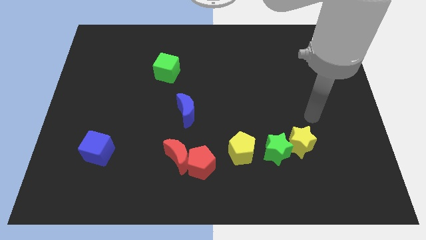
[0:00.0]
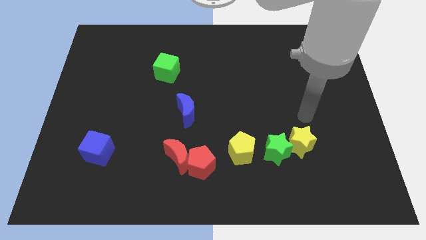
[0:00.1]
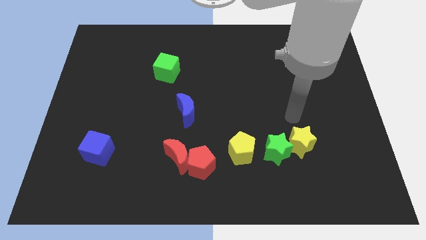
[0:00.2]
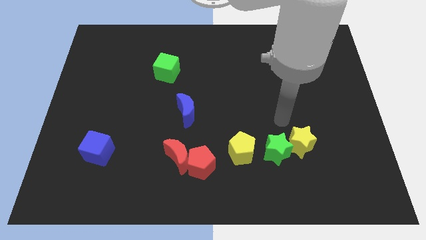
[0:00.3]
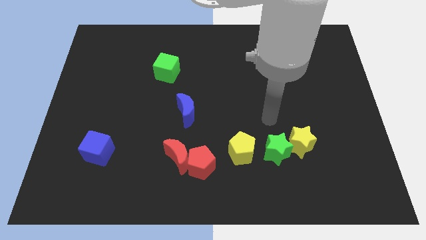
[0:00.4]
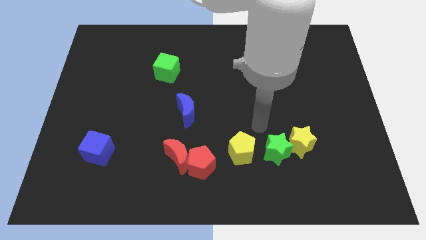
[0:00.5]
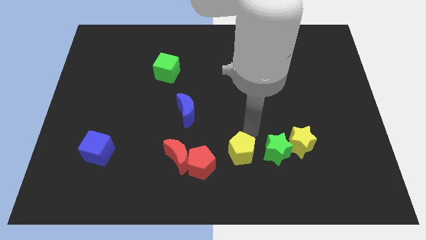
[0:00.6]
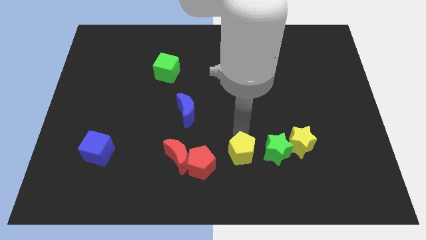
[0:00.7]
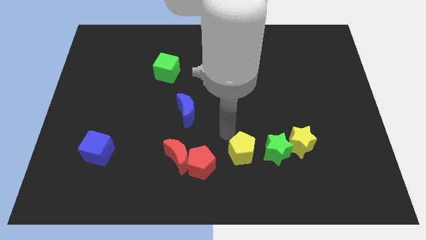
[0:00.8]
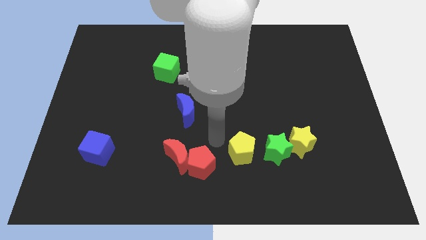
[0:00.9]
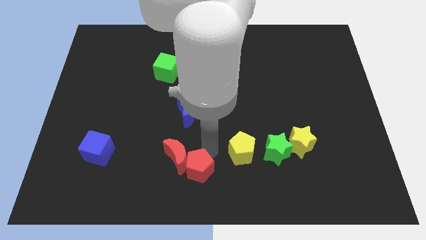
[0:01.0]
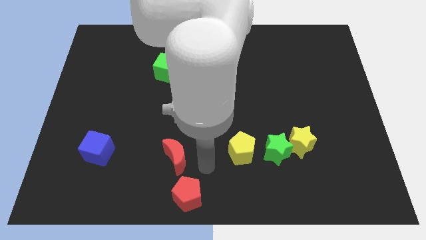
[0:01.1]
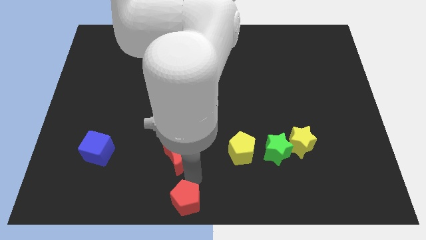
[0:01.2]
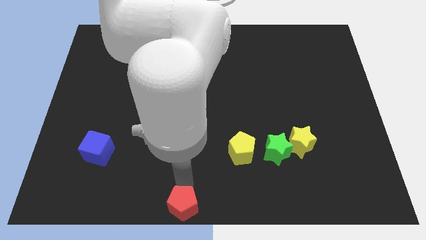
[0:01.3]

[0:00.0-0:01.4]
move the red moon away from the red pentagon

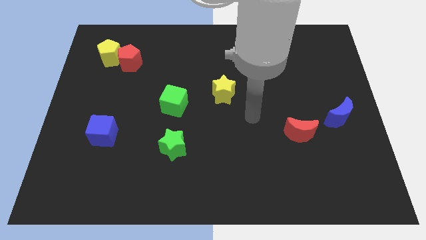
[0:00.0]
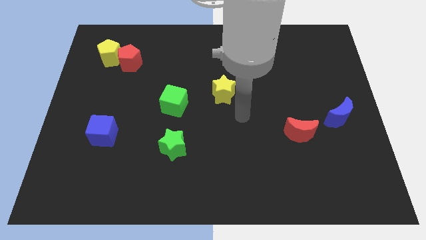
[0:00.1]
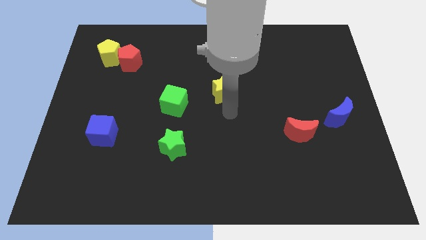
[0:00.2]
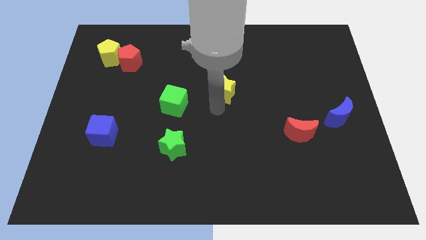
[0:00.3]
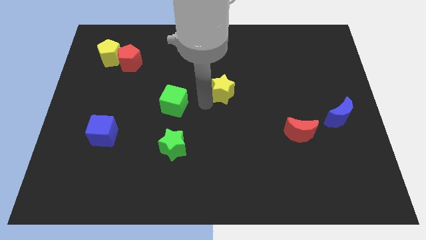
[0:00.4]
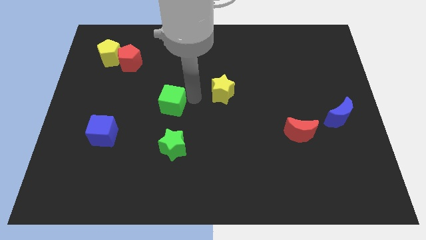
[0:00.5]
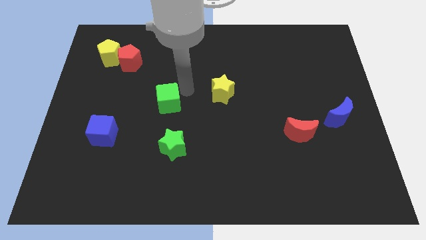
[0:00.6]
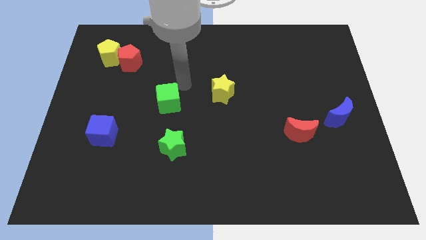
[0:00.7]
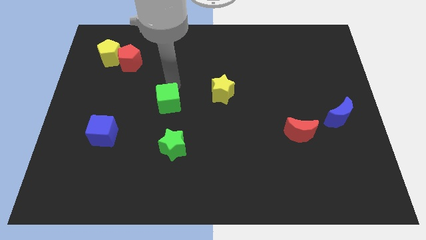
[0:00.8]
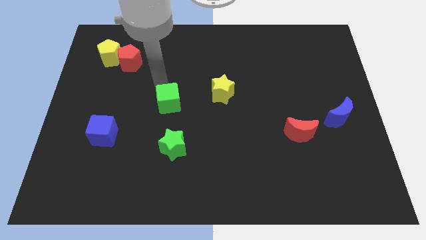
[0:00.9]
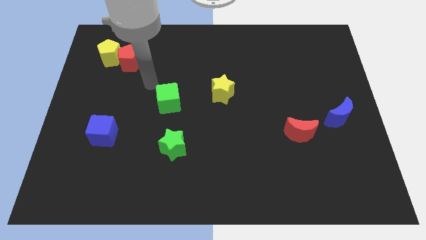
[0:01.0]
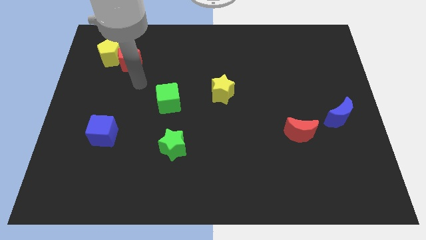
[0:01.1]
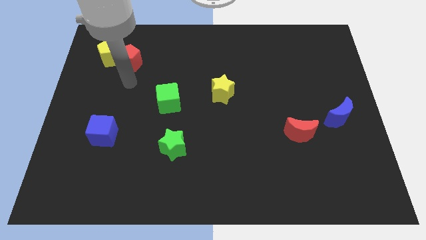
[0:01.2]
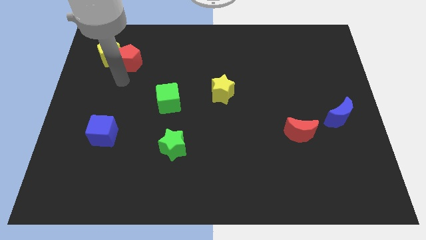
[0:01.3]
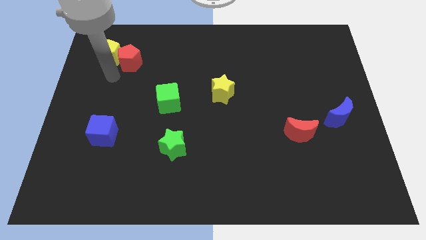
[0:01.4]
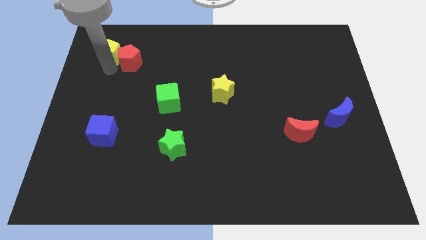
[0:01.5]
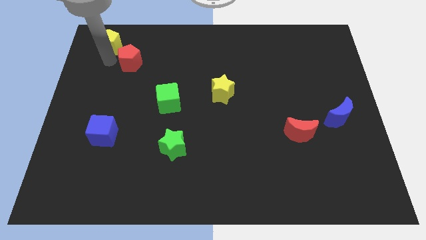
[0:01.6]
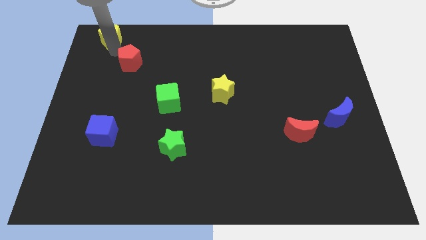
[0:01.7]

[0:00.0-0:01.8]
move the red pentagon away from the yellow pentagon

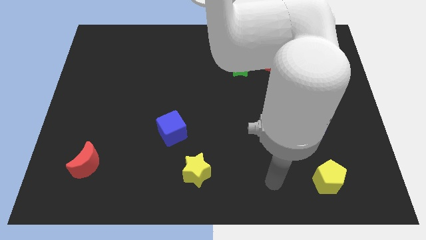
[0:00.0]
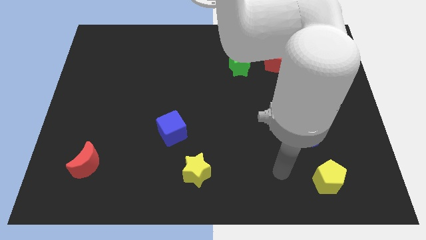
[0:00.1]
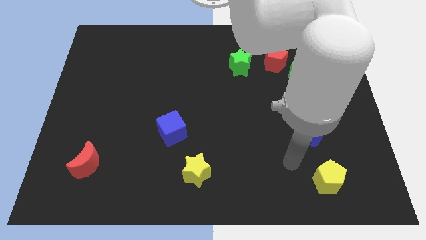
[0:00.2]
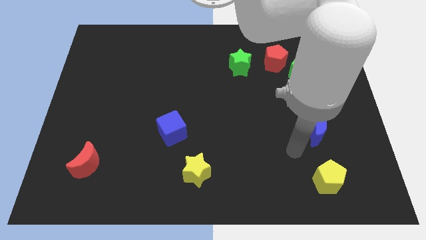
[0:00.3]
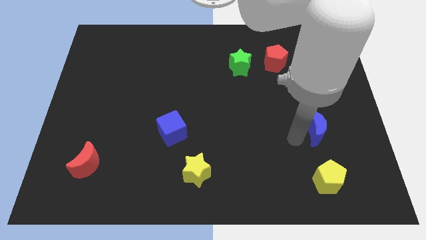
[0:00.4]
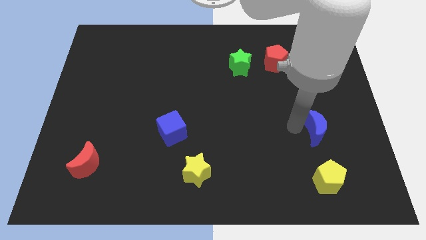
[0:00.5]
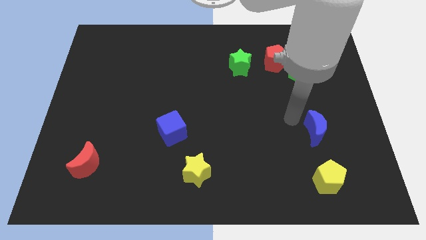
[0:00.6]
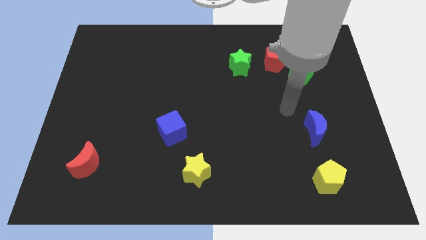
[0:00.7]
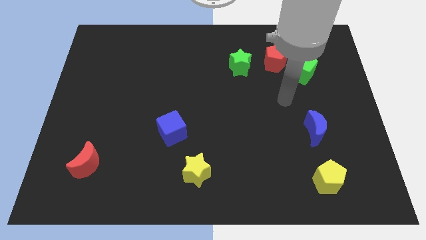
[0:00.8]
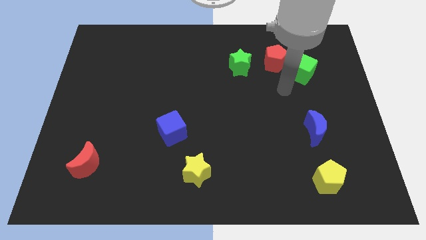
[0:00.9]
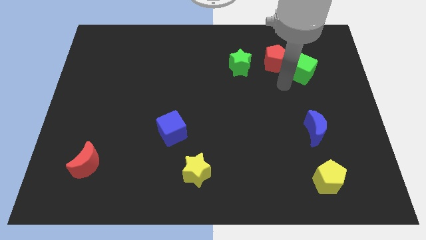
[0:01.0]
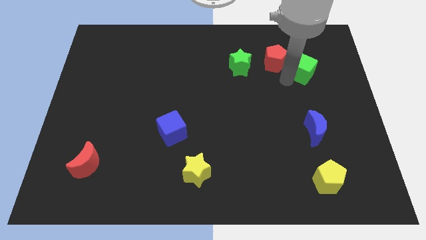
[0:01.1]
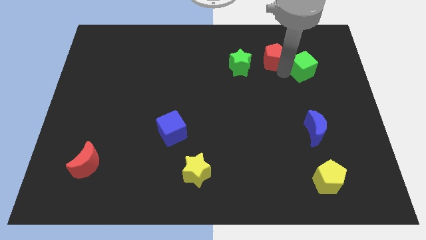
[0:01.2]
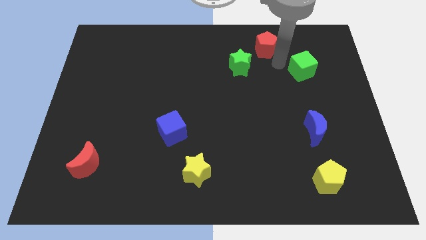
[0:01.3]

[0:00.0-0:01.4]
move the green cube away from the red pentagon

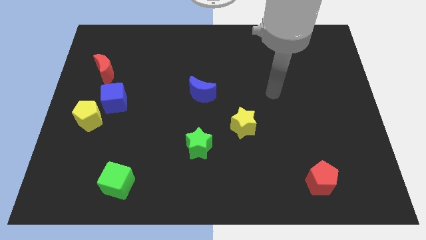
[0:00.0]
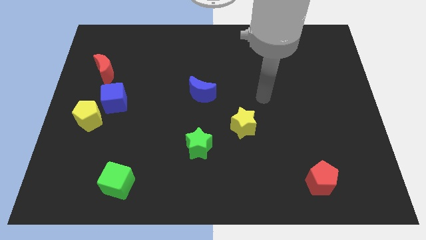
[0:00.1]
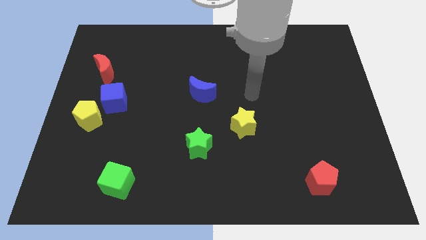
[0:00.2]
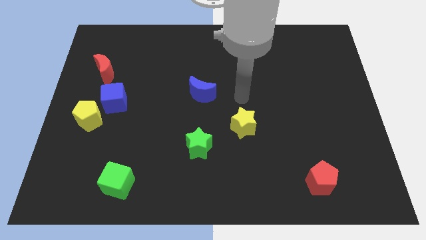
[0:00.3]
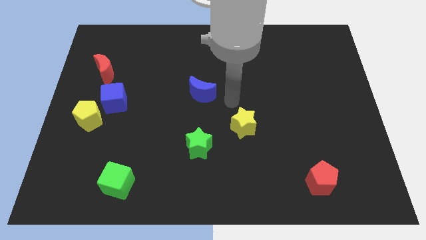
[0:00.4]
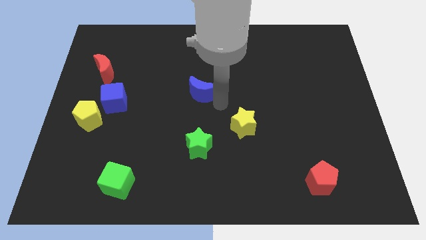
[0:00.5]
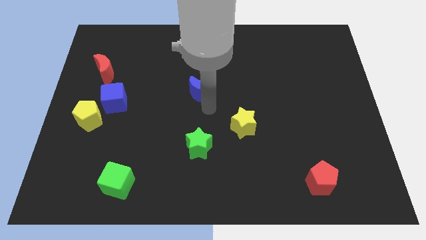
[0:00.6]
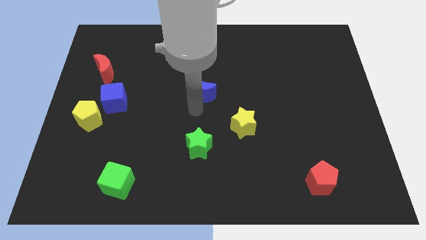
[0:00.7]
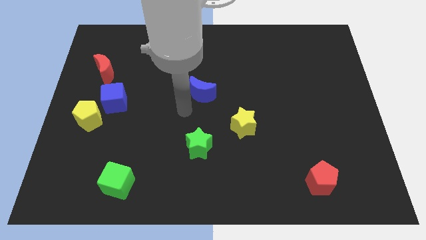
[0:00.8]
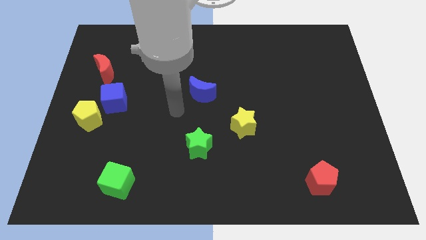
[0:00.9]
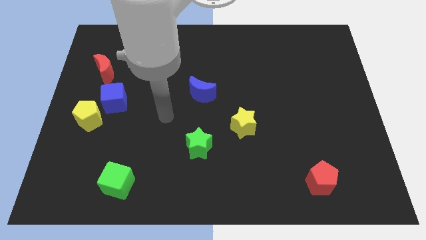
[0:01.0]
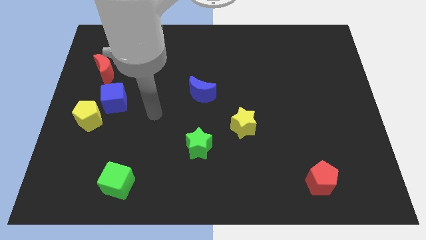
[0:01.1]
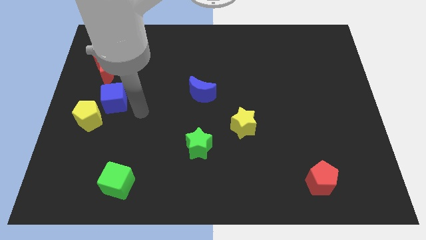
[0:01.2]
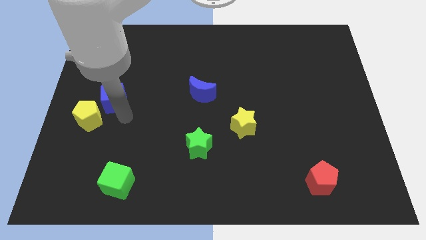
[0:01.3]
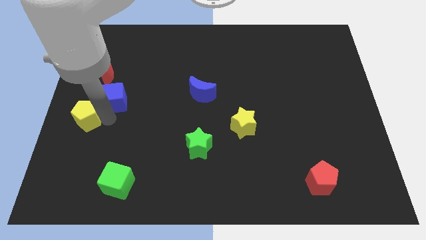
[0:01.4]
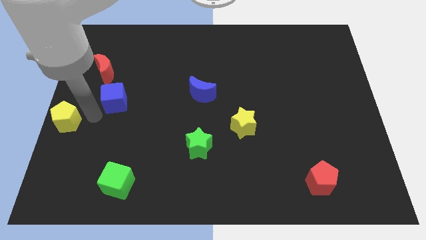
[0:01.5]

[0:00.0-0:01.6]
pull the blue cube apart from the yellow pentagon

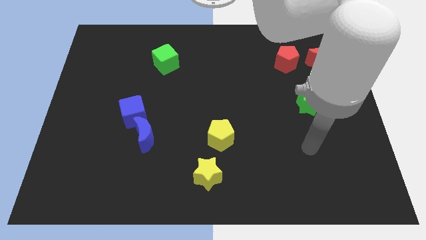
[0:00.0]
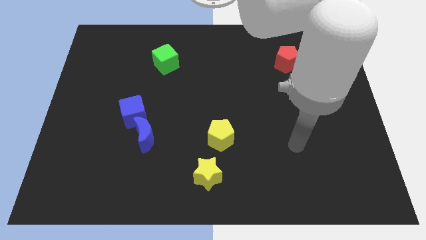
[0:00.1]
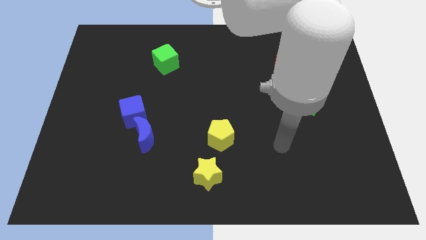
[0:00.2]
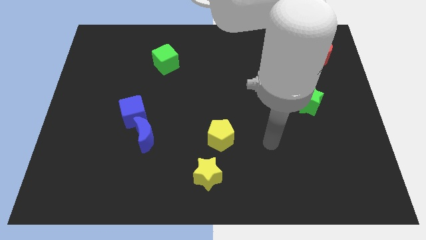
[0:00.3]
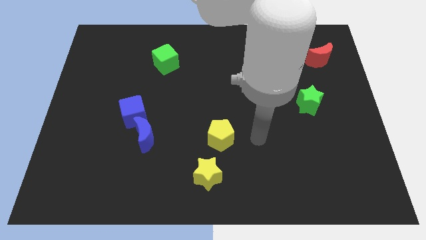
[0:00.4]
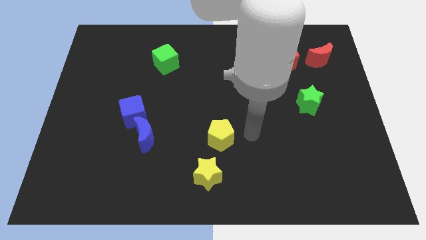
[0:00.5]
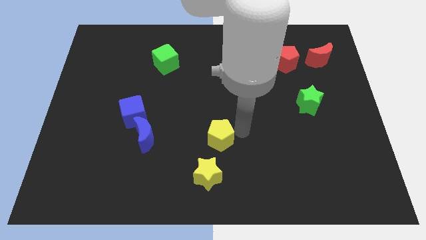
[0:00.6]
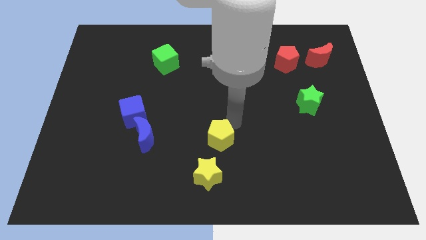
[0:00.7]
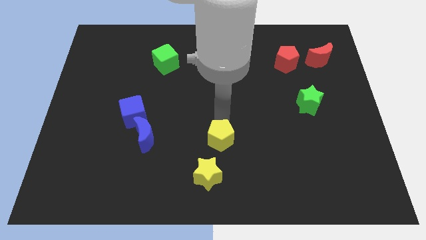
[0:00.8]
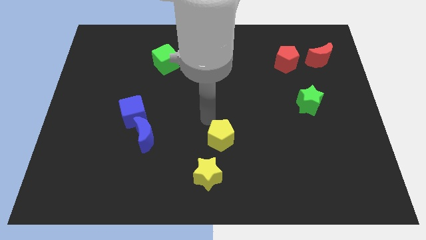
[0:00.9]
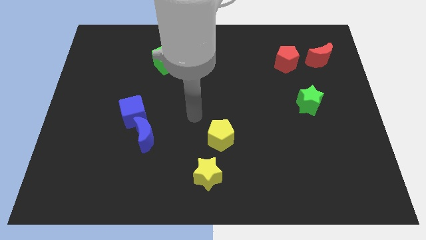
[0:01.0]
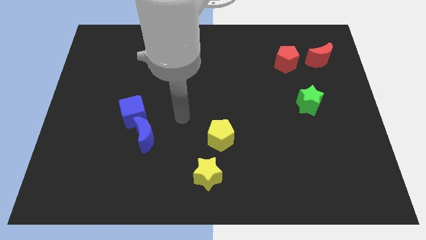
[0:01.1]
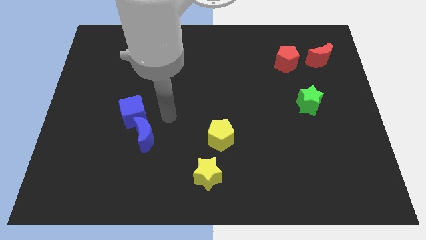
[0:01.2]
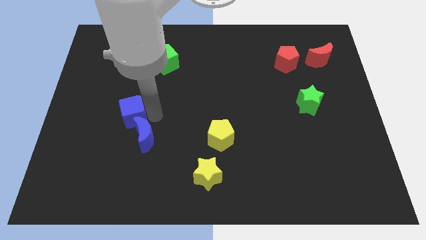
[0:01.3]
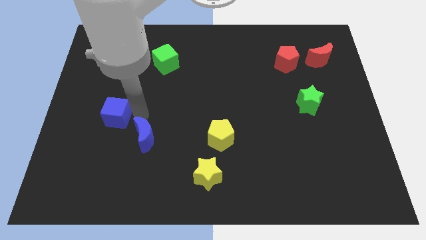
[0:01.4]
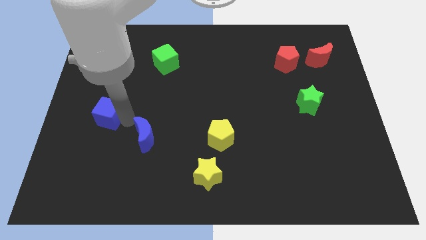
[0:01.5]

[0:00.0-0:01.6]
separate the blue moon from the blue cube

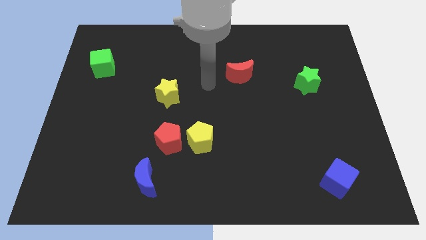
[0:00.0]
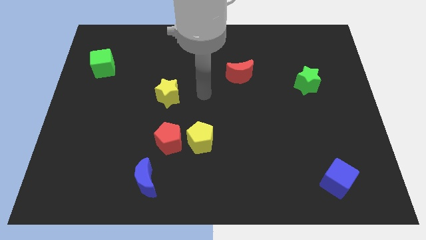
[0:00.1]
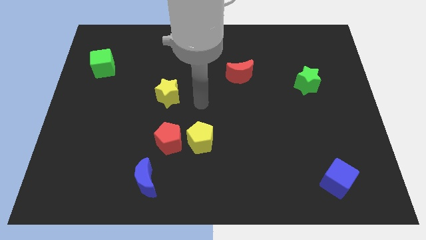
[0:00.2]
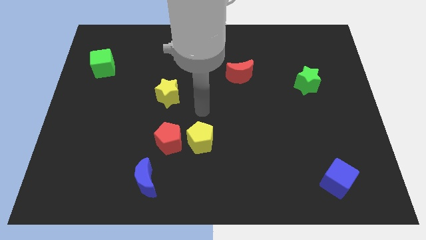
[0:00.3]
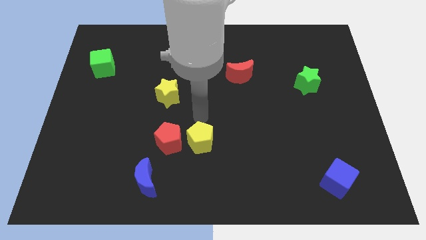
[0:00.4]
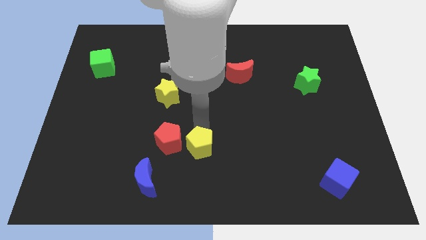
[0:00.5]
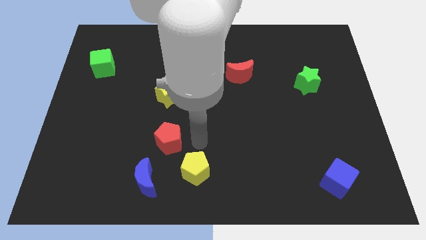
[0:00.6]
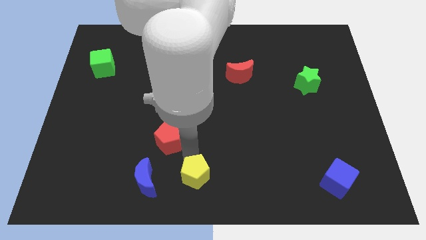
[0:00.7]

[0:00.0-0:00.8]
separate the red pentagon from the yellow pentagon

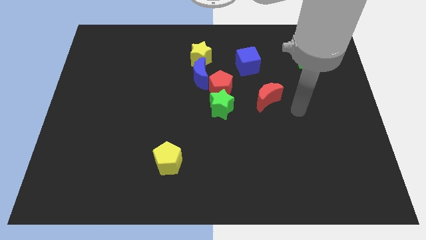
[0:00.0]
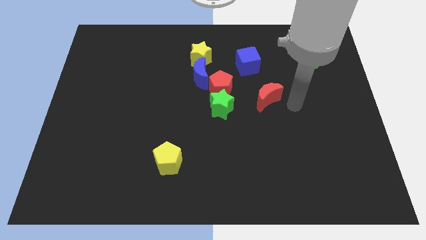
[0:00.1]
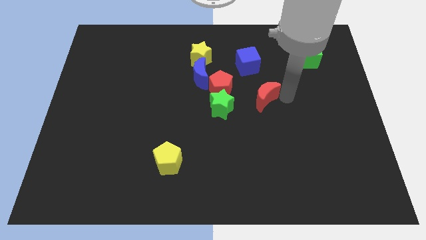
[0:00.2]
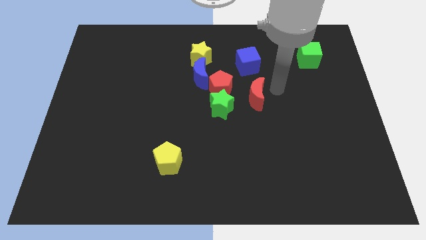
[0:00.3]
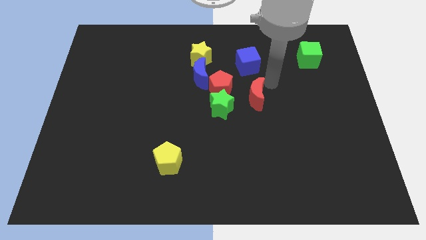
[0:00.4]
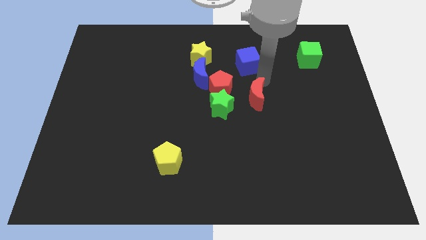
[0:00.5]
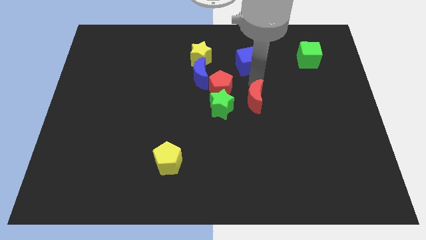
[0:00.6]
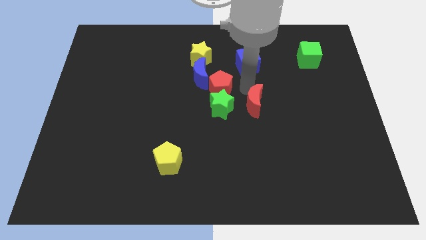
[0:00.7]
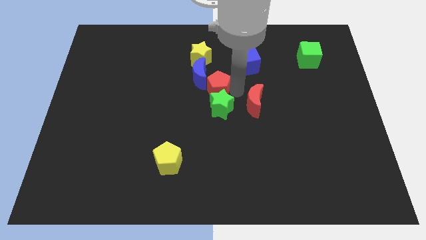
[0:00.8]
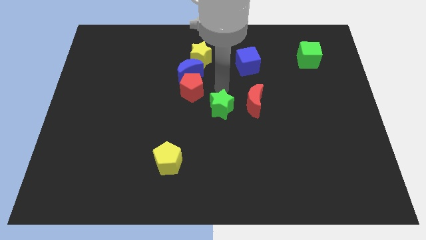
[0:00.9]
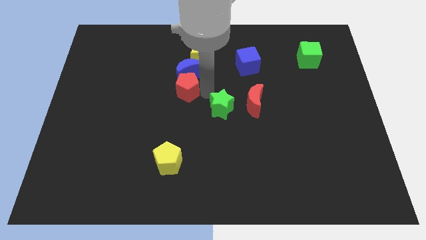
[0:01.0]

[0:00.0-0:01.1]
pull the green star apart from the red pentagon
